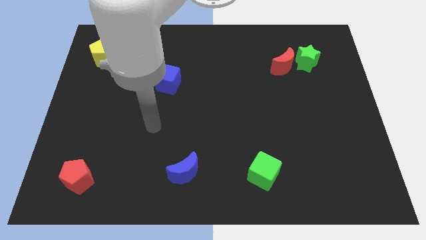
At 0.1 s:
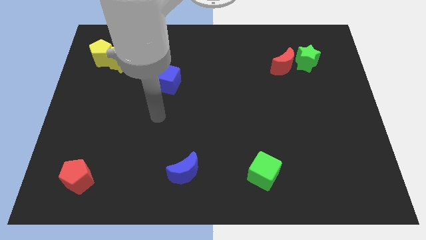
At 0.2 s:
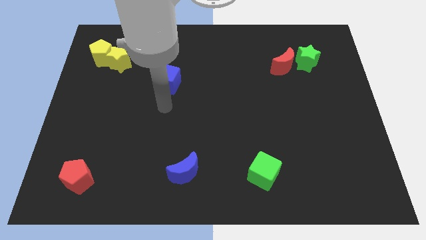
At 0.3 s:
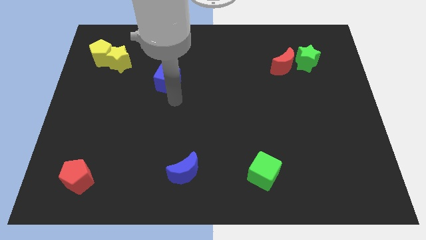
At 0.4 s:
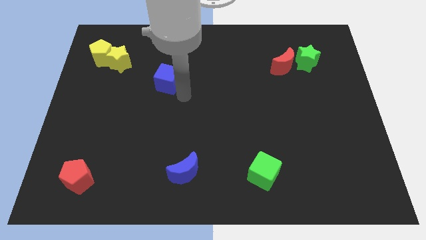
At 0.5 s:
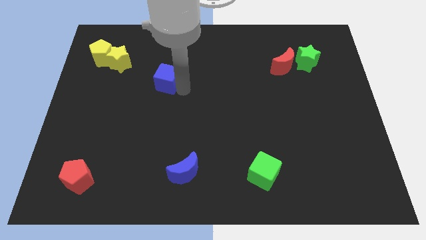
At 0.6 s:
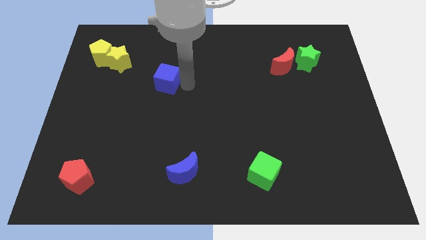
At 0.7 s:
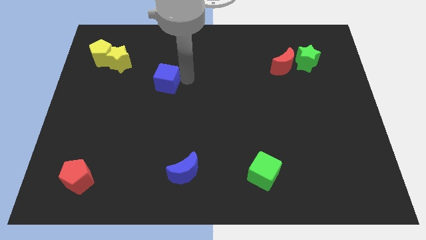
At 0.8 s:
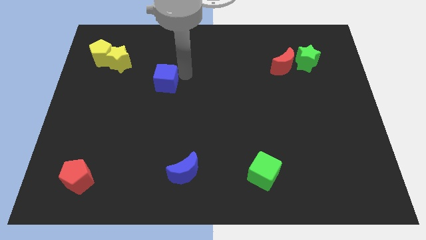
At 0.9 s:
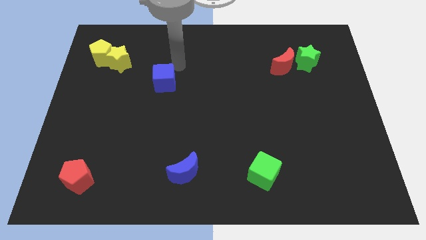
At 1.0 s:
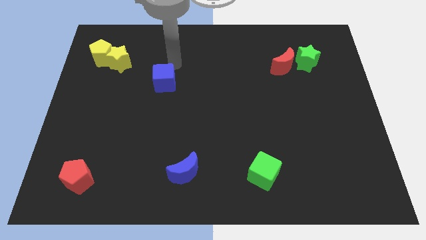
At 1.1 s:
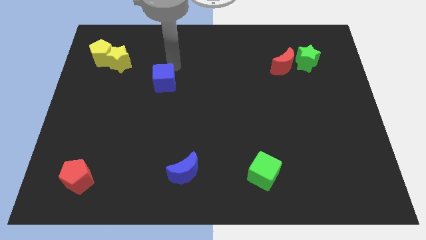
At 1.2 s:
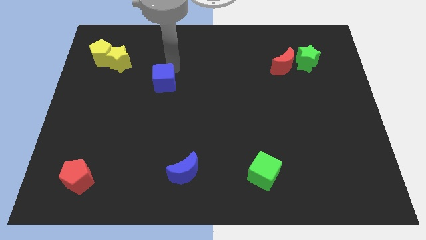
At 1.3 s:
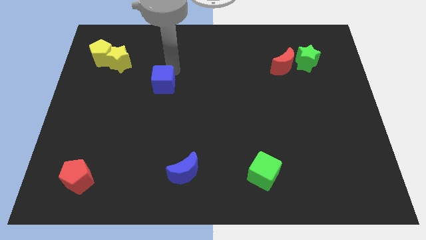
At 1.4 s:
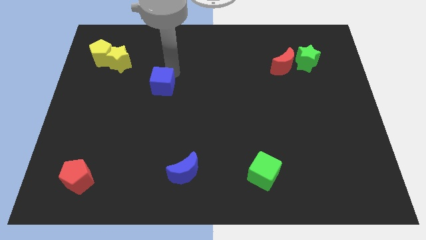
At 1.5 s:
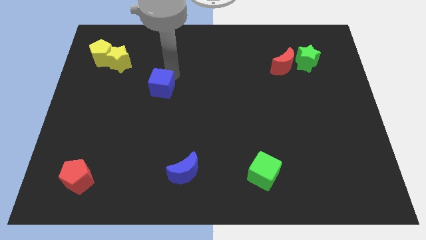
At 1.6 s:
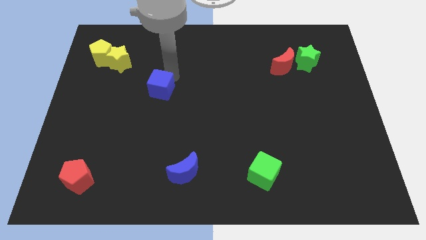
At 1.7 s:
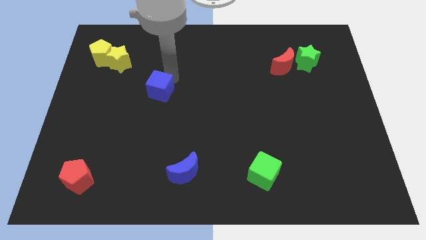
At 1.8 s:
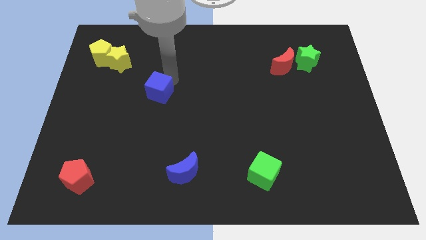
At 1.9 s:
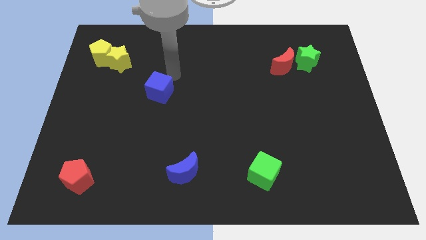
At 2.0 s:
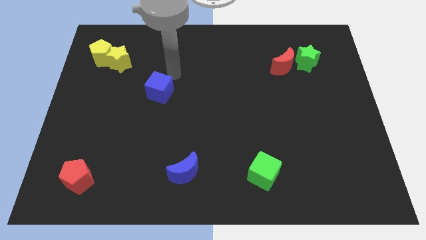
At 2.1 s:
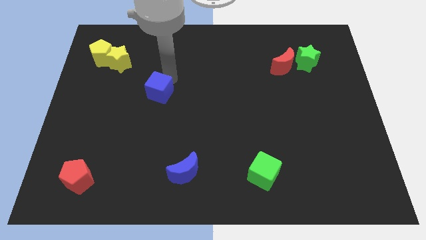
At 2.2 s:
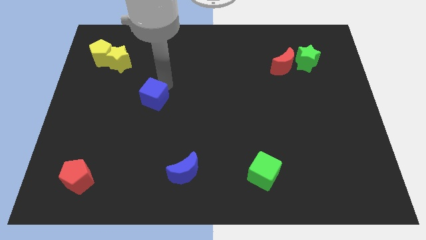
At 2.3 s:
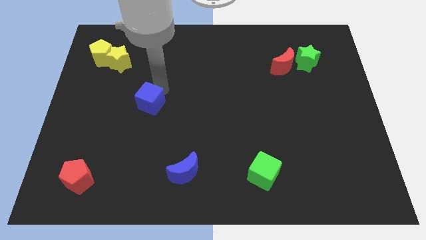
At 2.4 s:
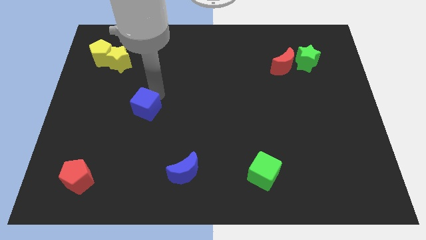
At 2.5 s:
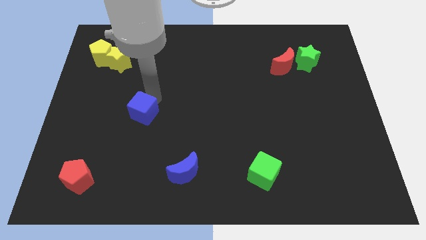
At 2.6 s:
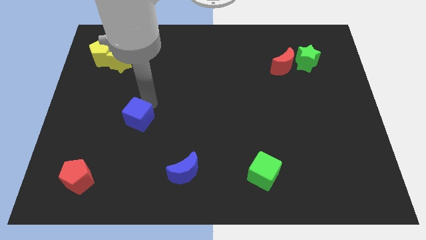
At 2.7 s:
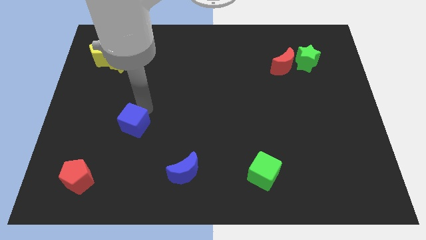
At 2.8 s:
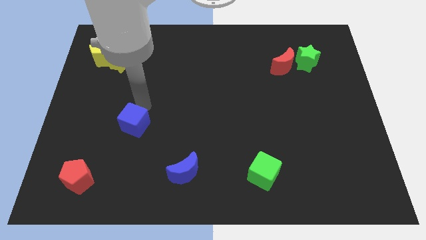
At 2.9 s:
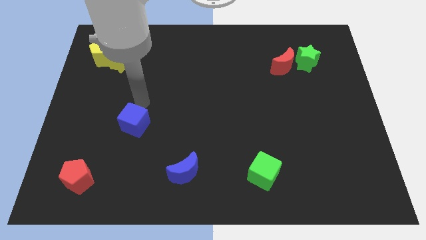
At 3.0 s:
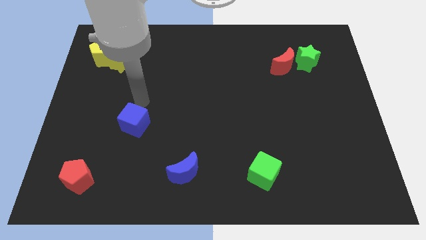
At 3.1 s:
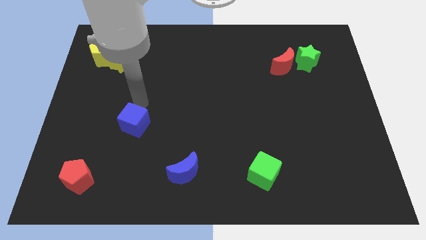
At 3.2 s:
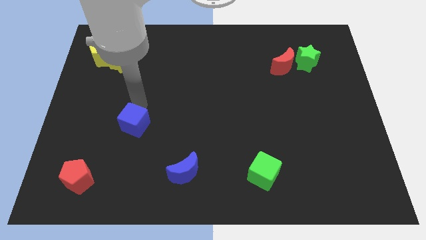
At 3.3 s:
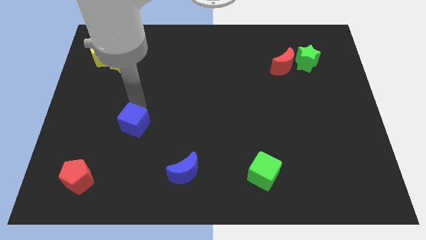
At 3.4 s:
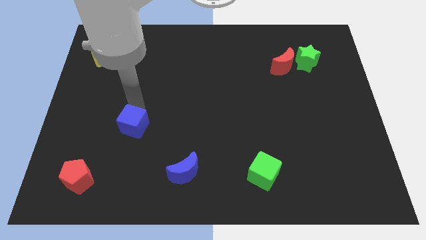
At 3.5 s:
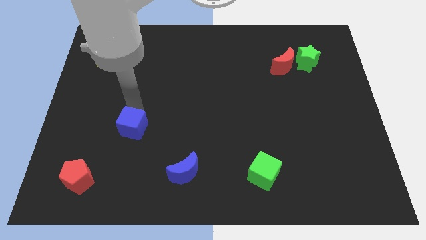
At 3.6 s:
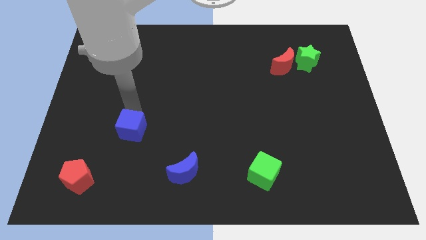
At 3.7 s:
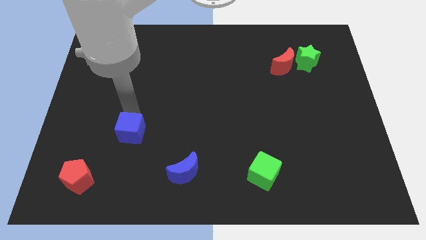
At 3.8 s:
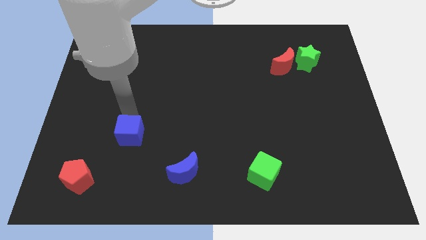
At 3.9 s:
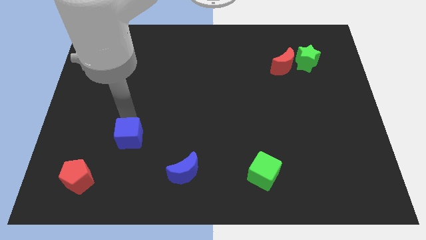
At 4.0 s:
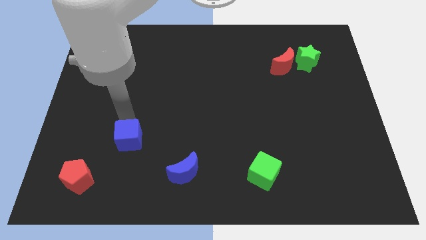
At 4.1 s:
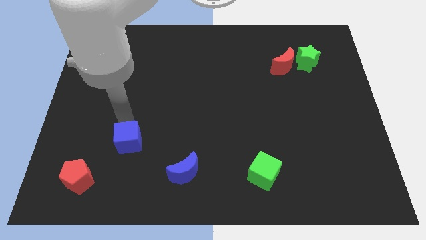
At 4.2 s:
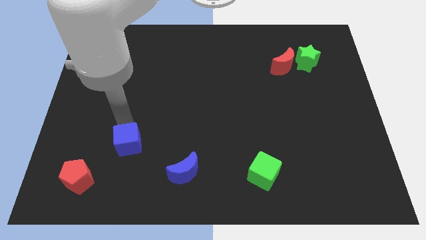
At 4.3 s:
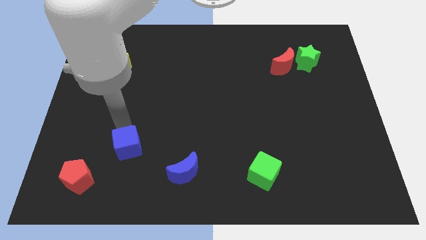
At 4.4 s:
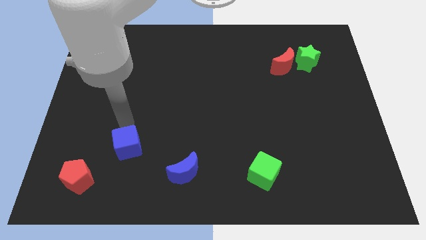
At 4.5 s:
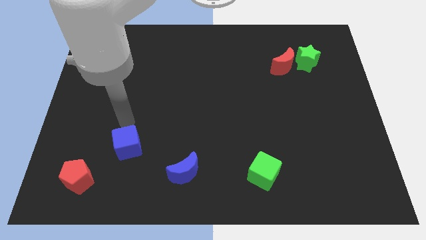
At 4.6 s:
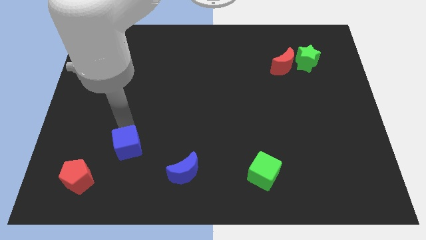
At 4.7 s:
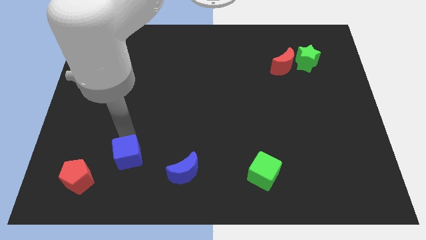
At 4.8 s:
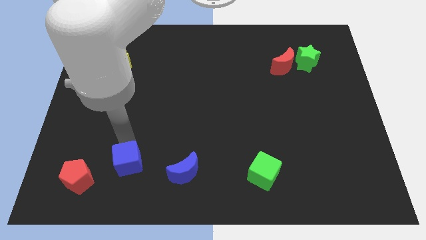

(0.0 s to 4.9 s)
put the blue cube just right of the red pentagon

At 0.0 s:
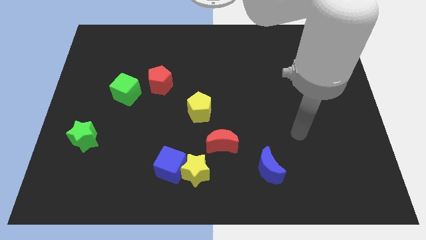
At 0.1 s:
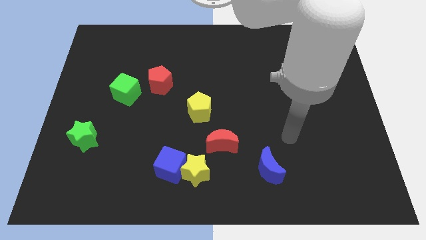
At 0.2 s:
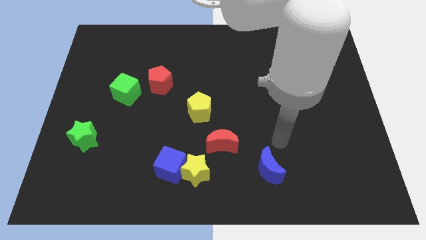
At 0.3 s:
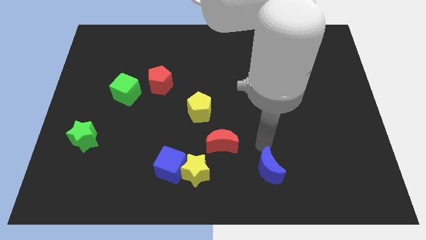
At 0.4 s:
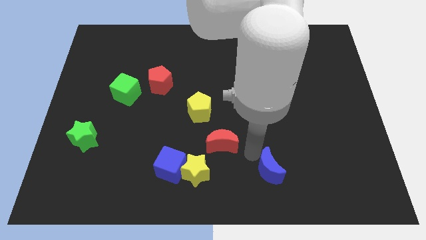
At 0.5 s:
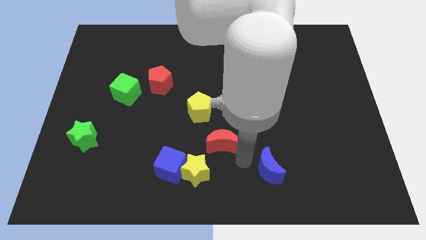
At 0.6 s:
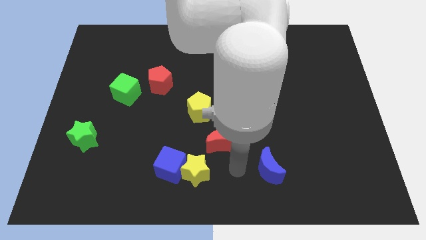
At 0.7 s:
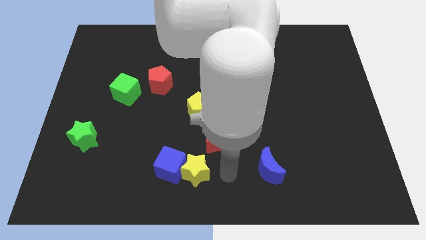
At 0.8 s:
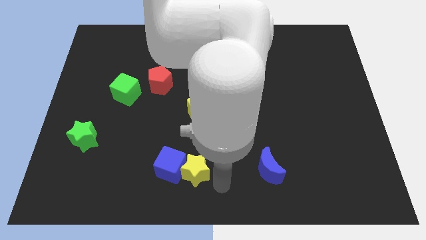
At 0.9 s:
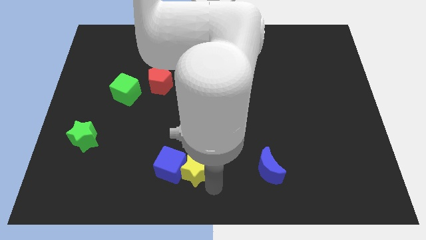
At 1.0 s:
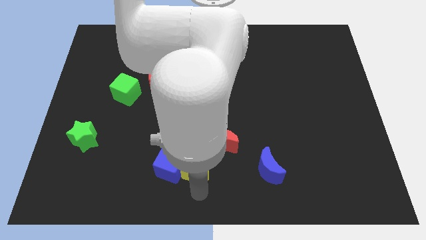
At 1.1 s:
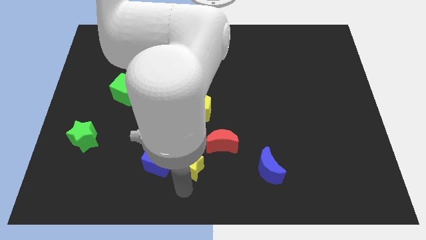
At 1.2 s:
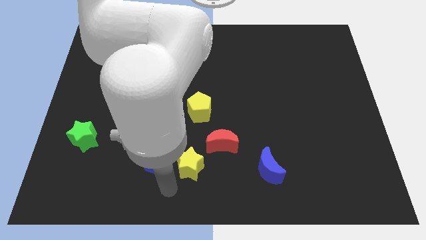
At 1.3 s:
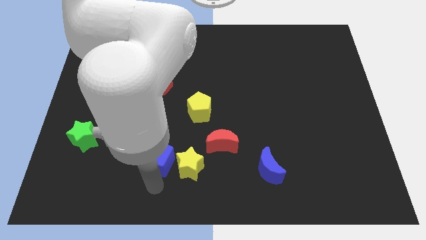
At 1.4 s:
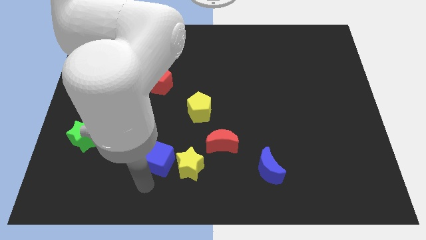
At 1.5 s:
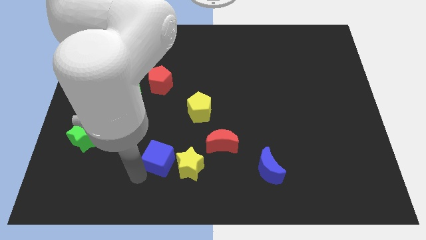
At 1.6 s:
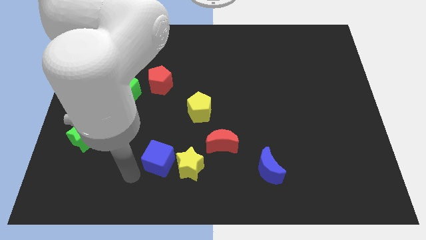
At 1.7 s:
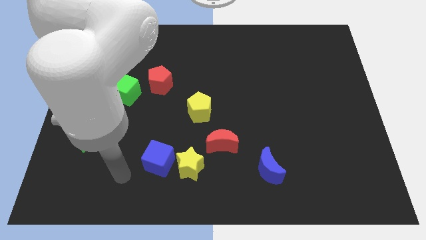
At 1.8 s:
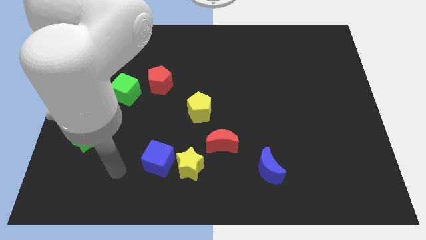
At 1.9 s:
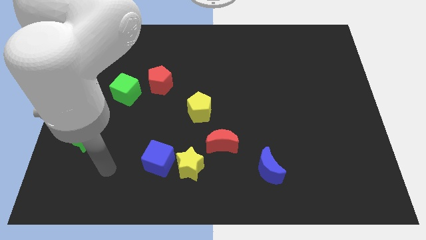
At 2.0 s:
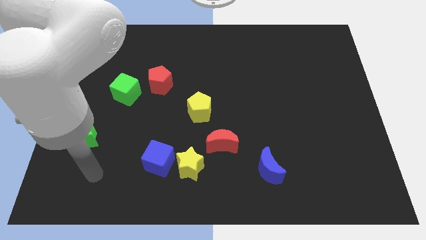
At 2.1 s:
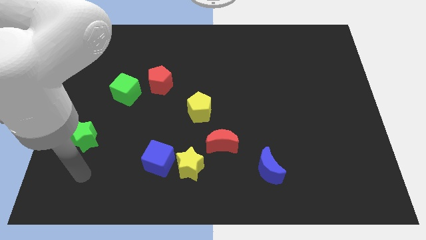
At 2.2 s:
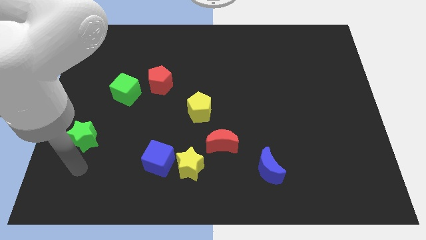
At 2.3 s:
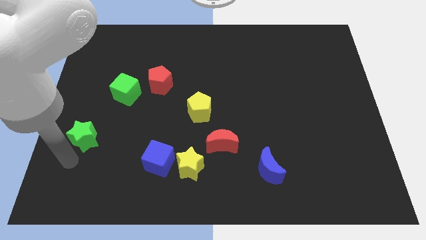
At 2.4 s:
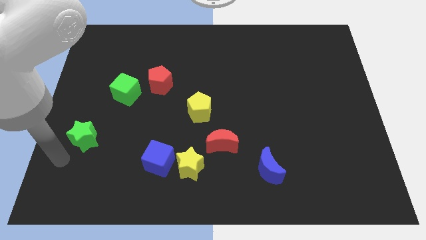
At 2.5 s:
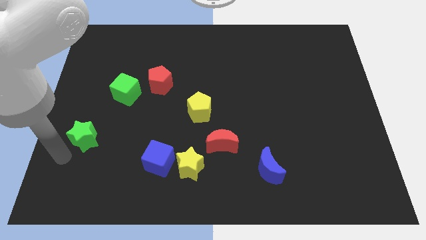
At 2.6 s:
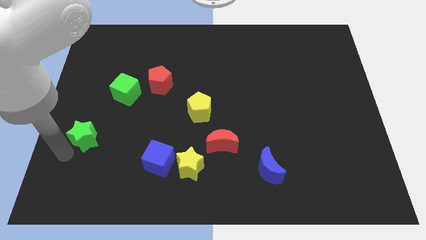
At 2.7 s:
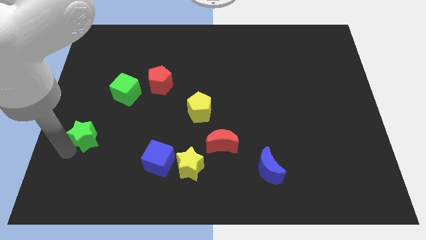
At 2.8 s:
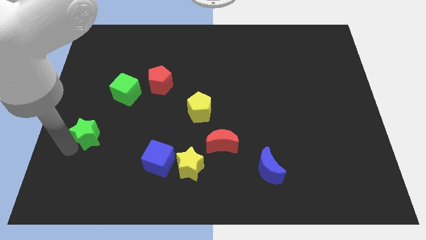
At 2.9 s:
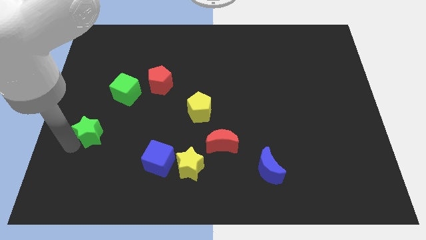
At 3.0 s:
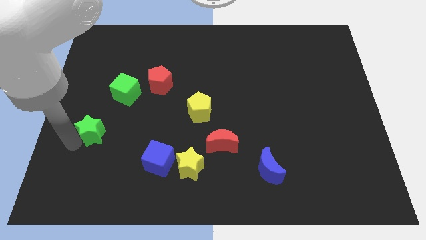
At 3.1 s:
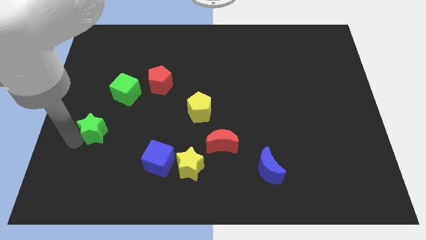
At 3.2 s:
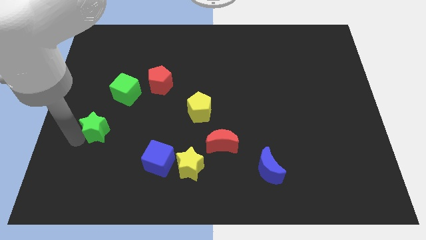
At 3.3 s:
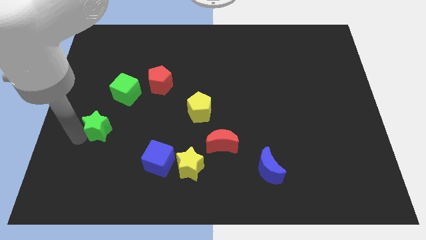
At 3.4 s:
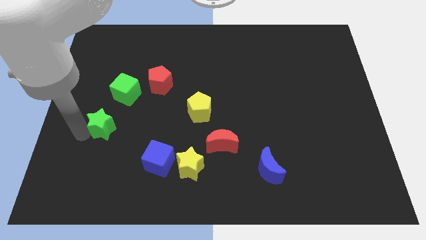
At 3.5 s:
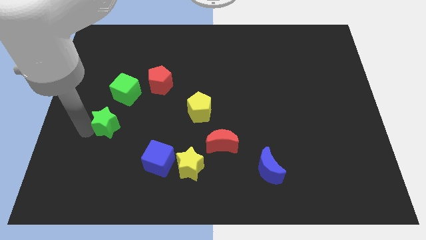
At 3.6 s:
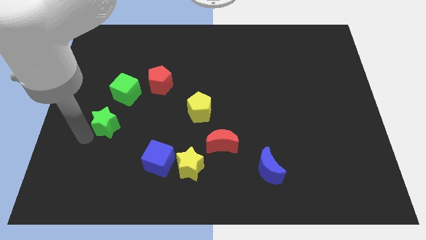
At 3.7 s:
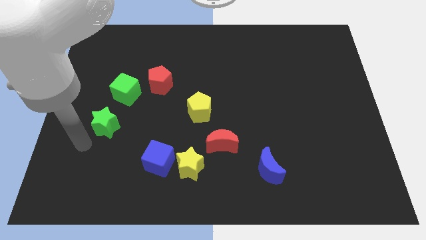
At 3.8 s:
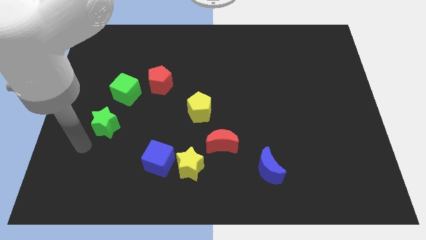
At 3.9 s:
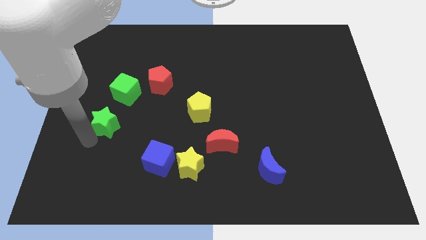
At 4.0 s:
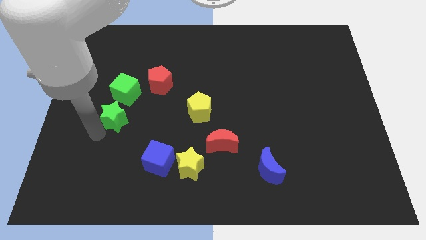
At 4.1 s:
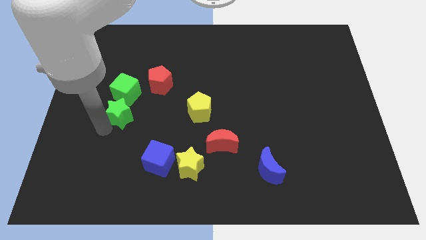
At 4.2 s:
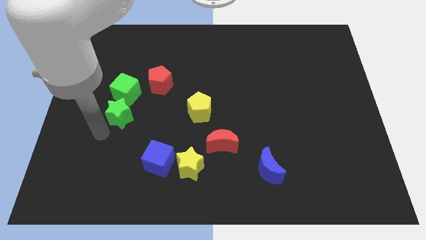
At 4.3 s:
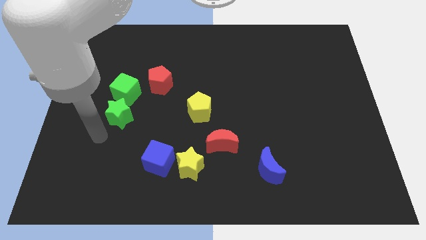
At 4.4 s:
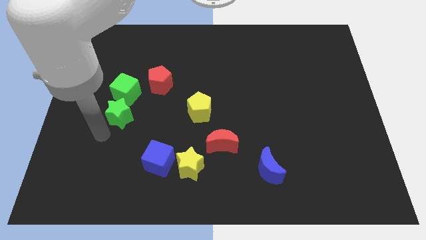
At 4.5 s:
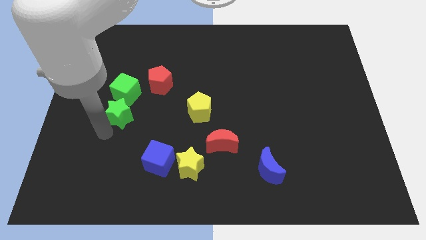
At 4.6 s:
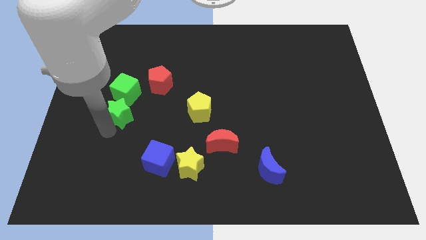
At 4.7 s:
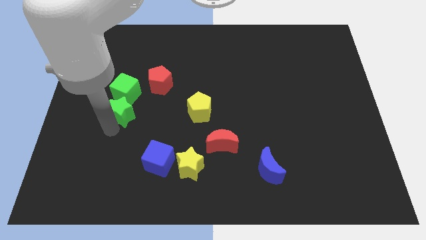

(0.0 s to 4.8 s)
slide the green star to the bottom left side of the red pentagon
